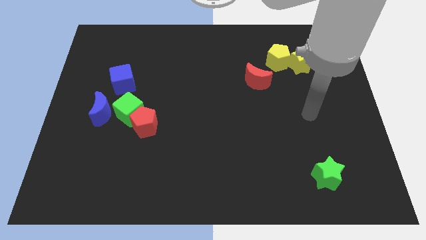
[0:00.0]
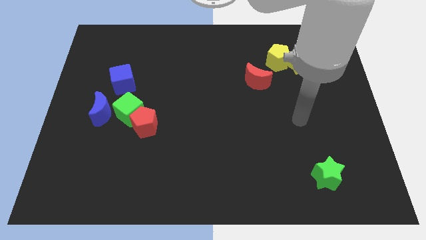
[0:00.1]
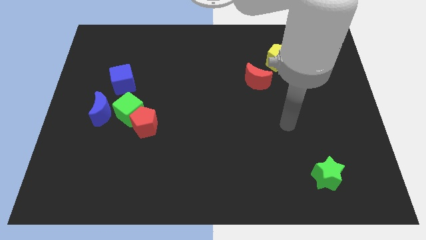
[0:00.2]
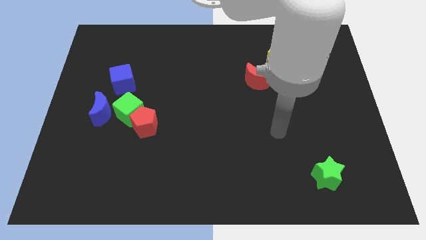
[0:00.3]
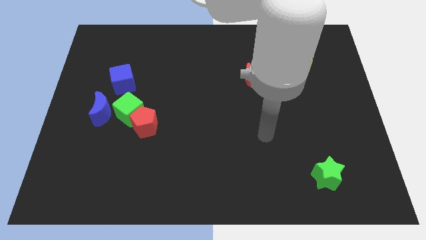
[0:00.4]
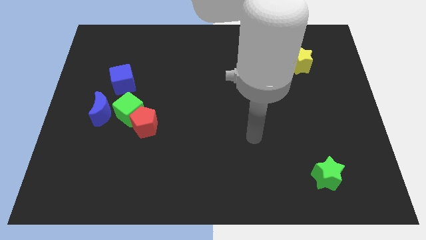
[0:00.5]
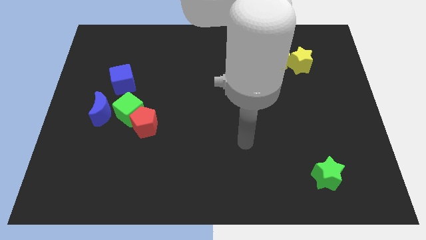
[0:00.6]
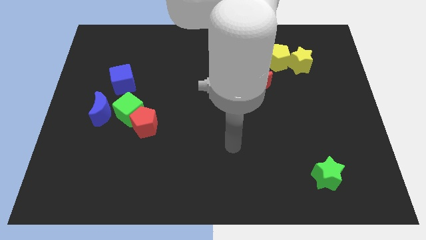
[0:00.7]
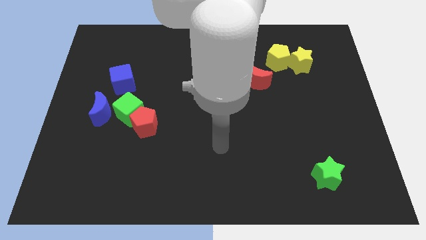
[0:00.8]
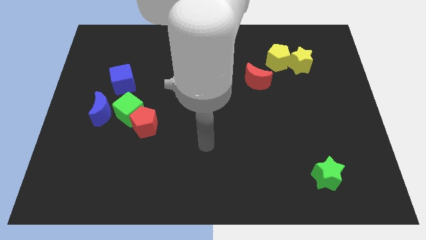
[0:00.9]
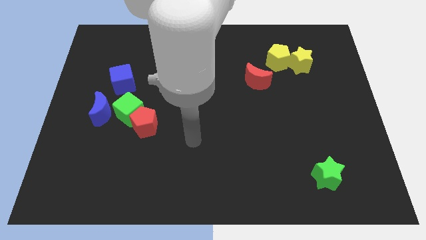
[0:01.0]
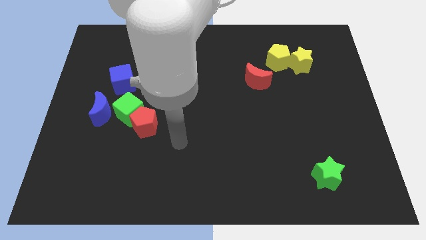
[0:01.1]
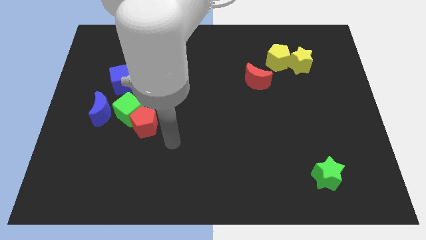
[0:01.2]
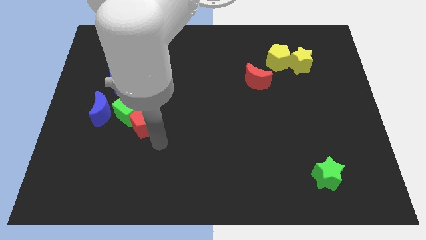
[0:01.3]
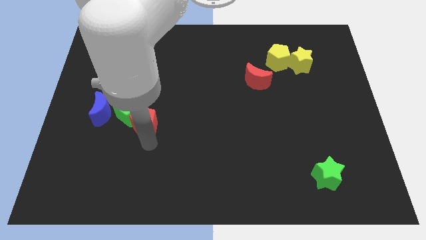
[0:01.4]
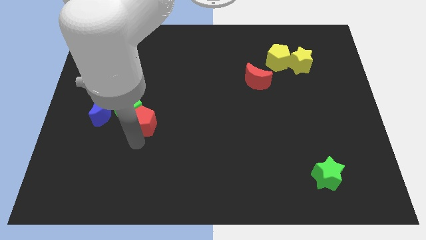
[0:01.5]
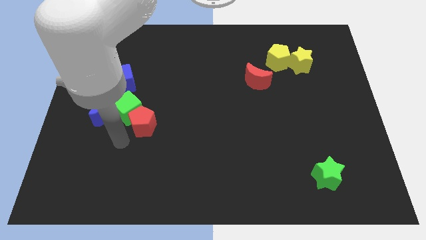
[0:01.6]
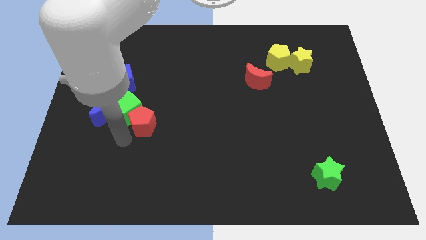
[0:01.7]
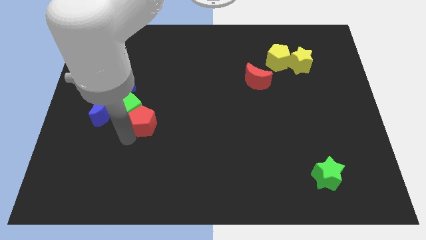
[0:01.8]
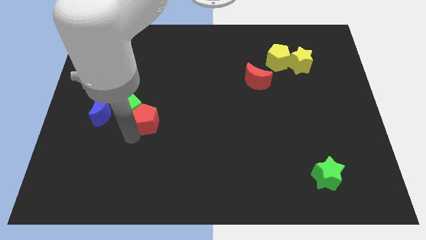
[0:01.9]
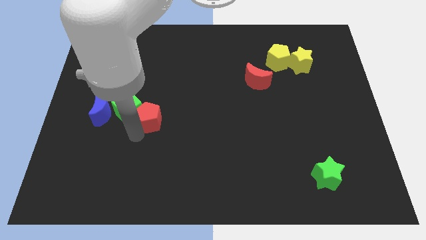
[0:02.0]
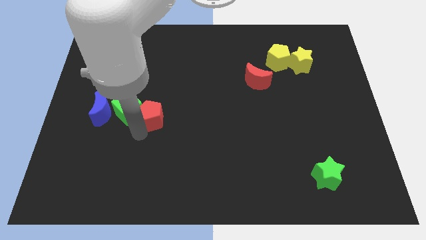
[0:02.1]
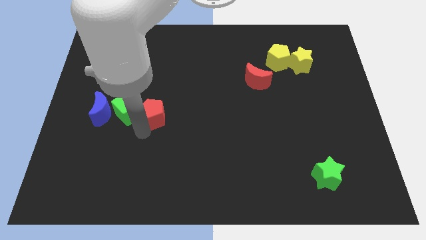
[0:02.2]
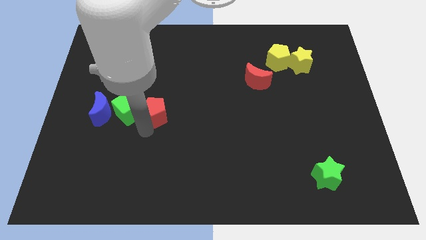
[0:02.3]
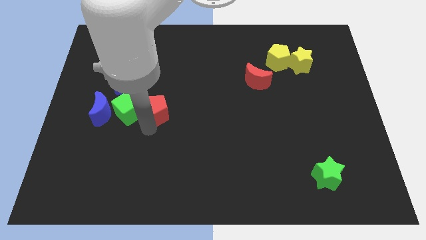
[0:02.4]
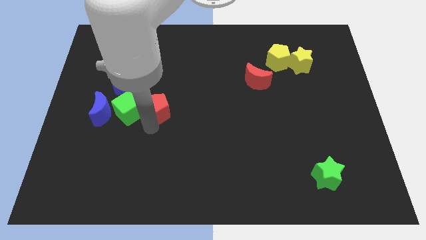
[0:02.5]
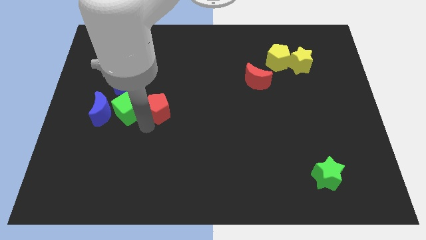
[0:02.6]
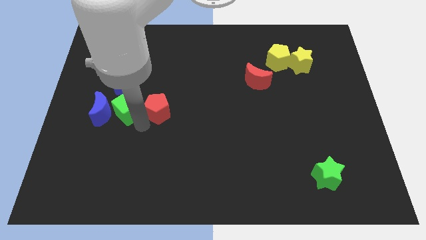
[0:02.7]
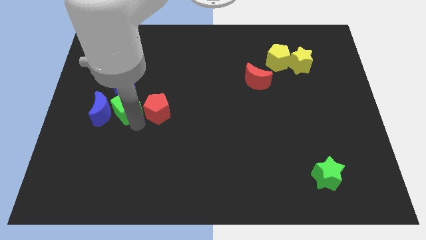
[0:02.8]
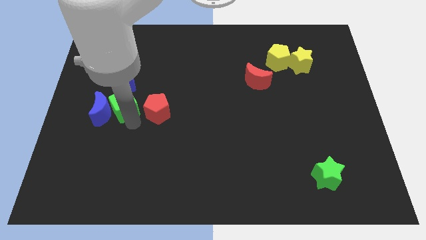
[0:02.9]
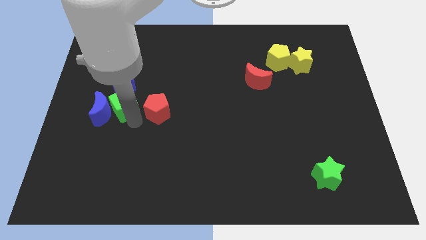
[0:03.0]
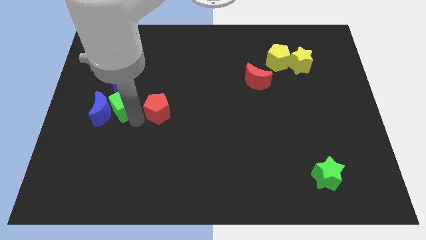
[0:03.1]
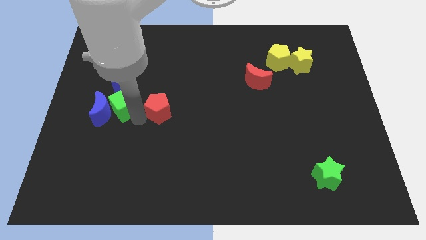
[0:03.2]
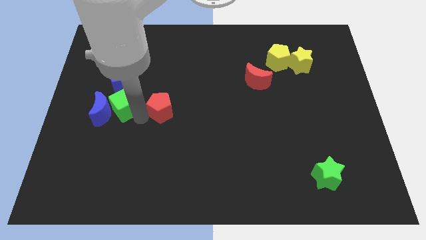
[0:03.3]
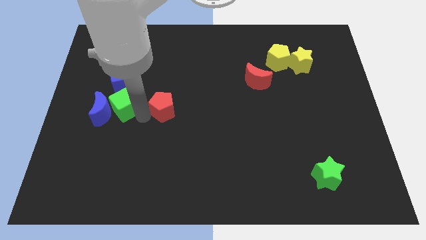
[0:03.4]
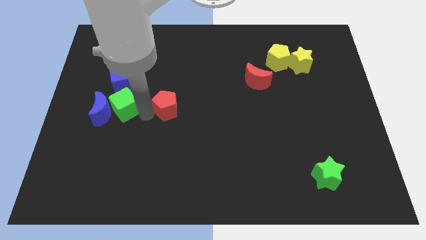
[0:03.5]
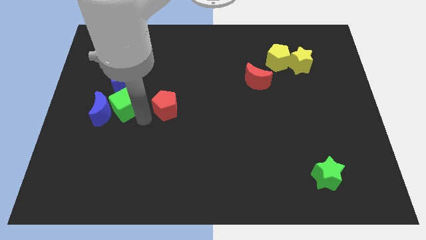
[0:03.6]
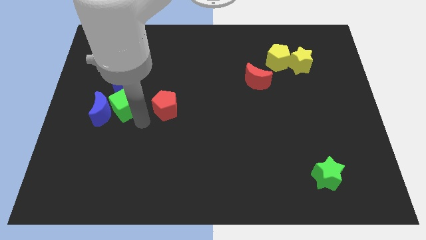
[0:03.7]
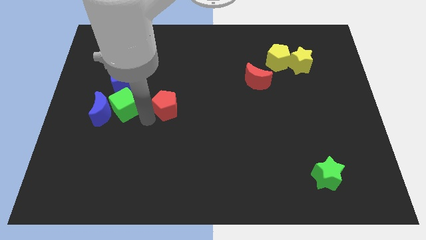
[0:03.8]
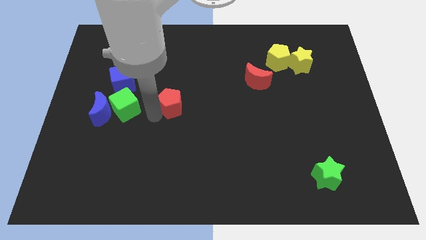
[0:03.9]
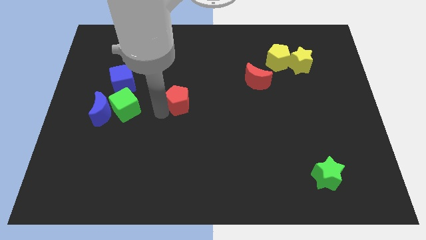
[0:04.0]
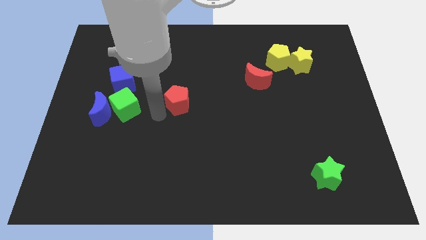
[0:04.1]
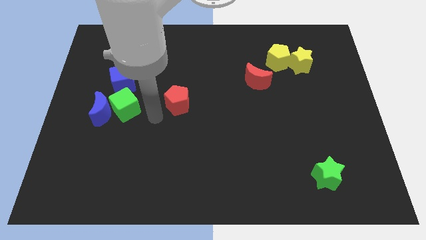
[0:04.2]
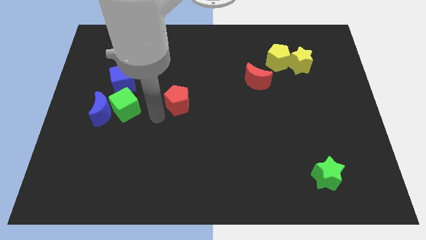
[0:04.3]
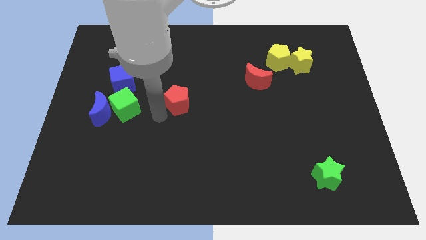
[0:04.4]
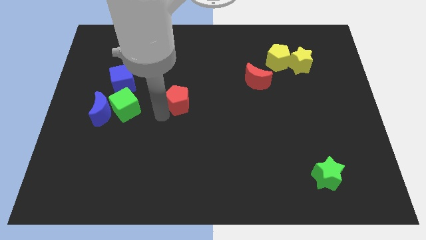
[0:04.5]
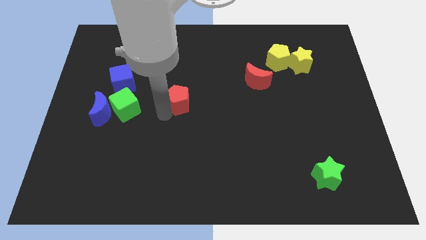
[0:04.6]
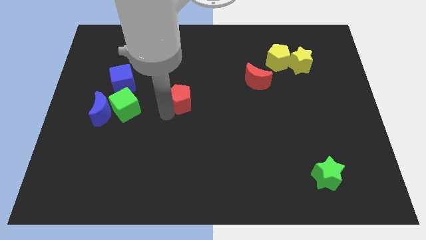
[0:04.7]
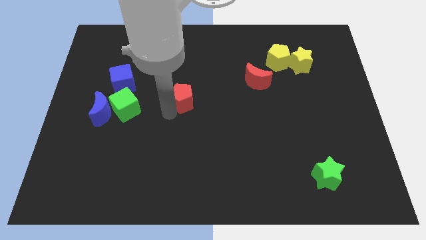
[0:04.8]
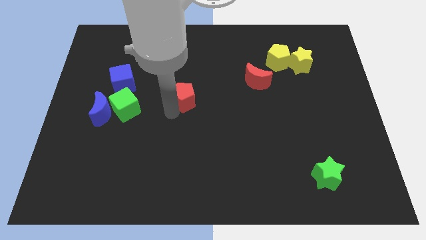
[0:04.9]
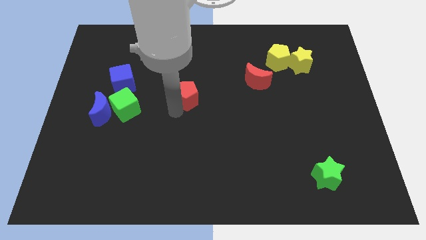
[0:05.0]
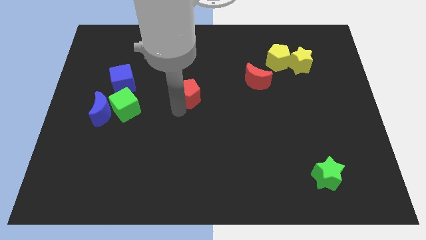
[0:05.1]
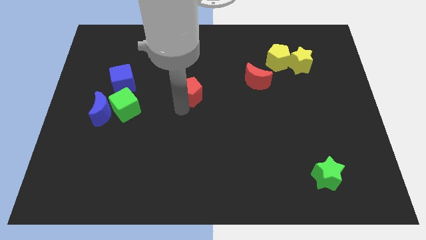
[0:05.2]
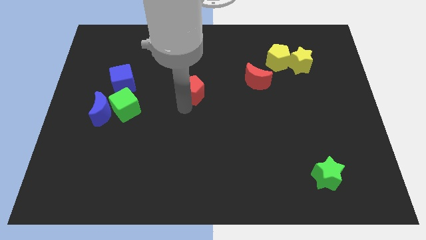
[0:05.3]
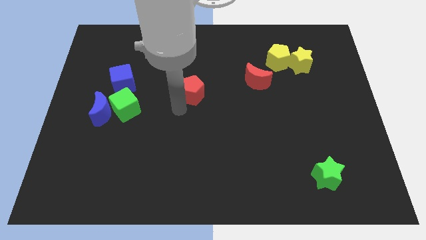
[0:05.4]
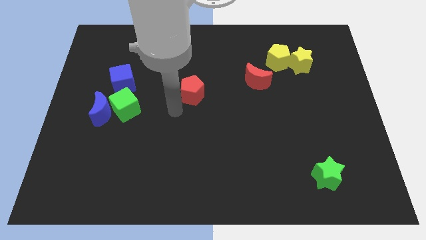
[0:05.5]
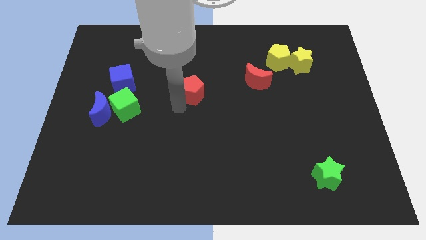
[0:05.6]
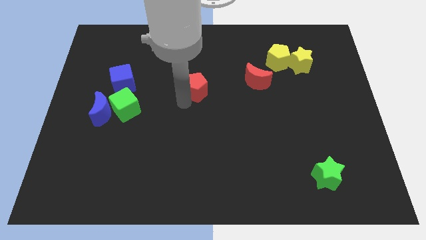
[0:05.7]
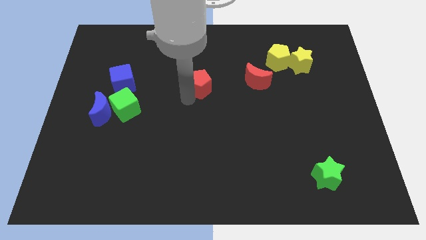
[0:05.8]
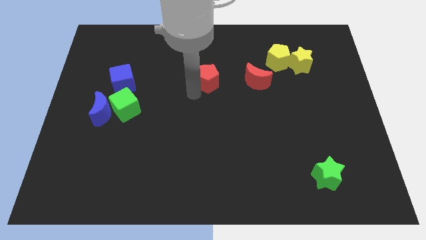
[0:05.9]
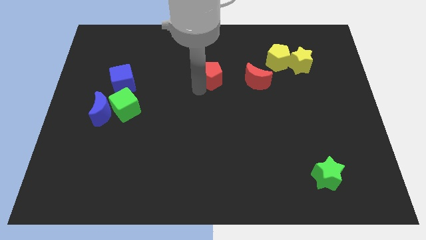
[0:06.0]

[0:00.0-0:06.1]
move the red pentagon upwards and to the right diagonally

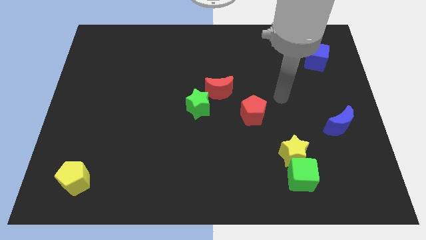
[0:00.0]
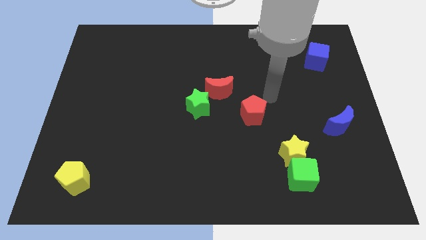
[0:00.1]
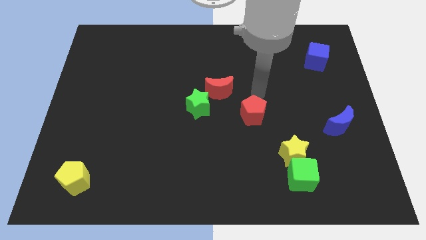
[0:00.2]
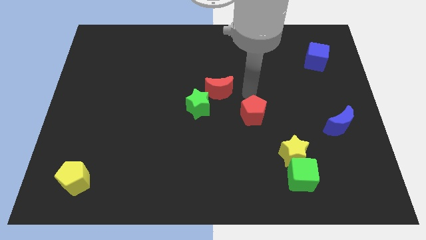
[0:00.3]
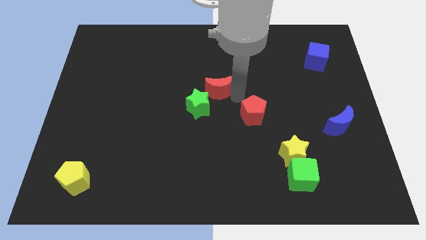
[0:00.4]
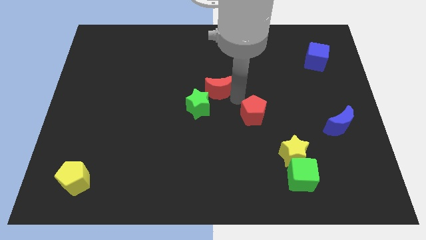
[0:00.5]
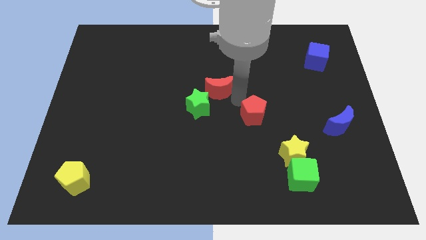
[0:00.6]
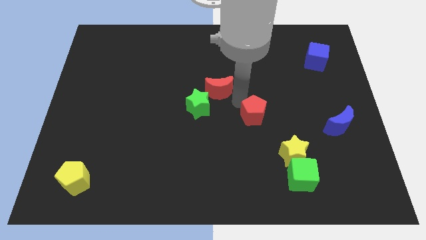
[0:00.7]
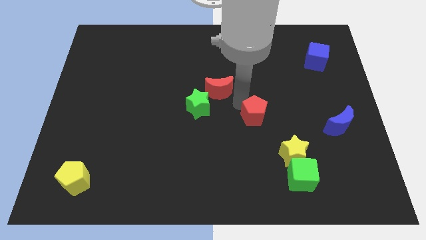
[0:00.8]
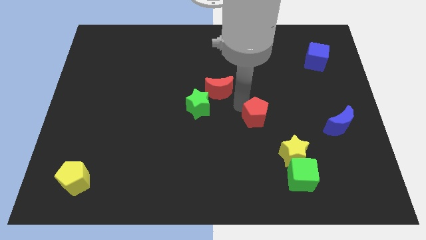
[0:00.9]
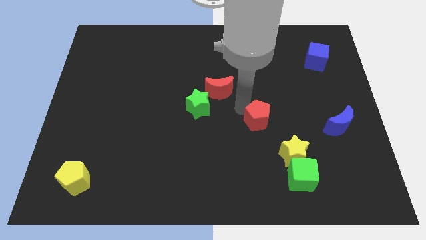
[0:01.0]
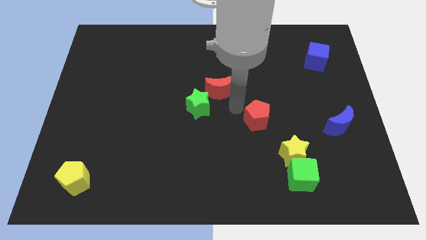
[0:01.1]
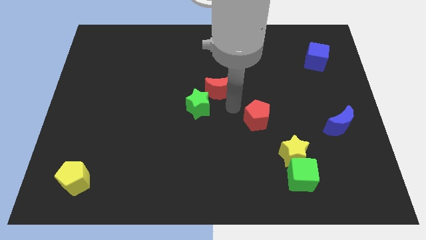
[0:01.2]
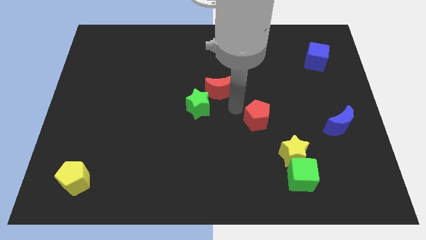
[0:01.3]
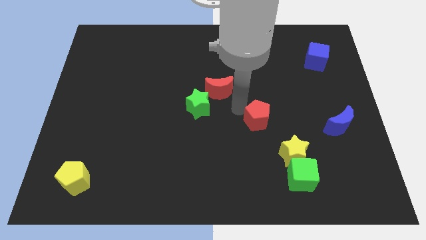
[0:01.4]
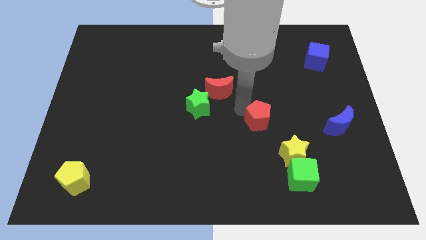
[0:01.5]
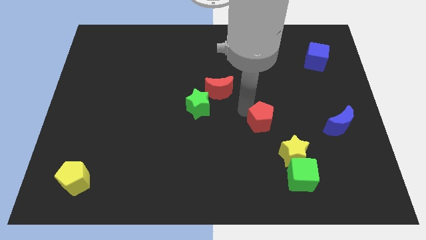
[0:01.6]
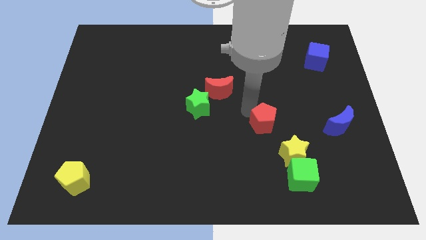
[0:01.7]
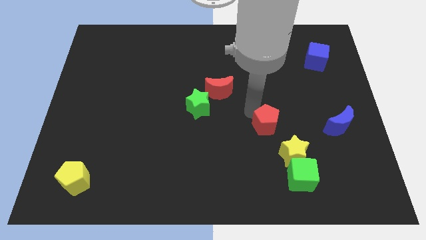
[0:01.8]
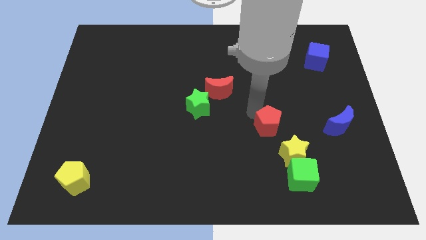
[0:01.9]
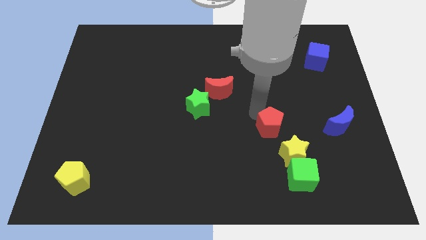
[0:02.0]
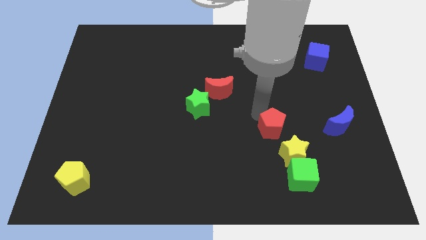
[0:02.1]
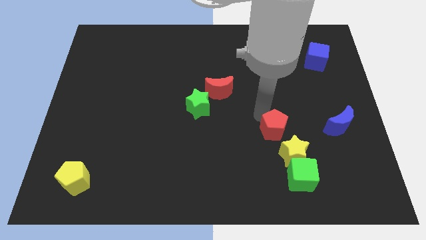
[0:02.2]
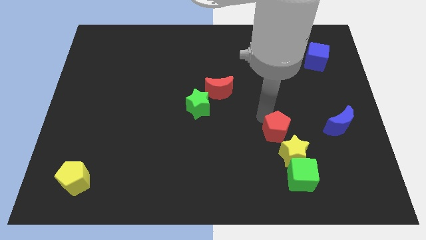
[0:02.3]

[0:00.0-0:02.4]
move the red pentagon a little downwards and to the right
